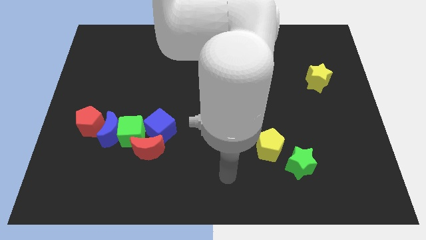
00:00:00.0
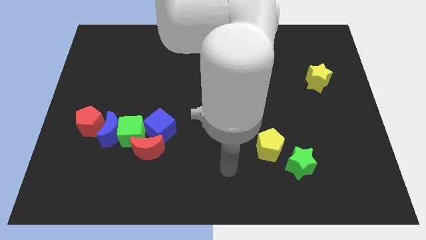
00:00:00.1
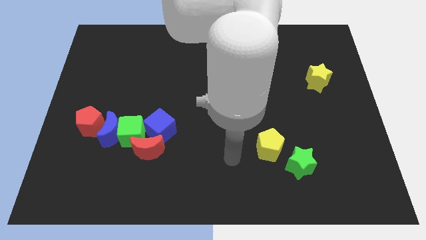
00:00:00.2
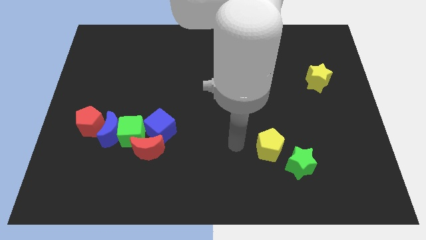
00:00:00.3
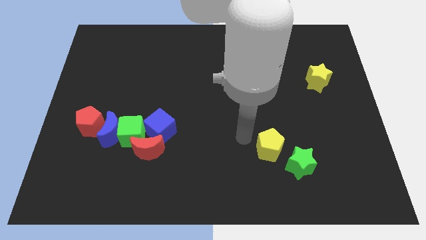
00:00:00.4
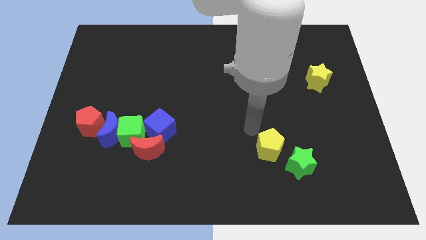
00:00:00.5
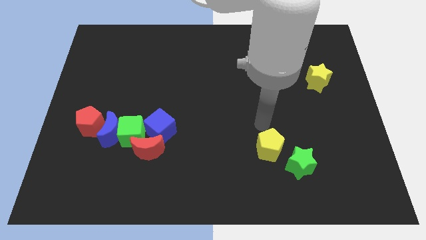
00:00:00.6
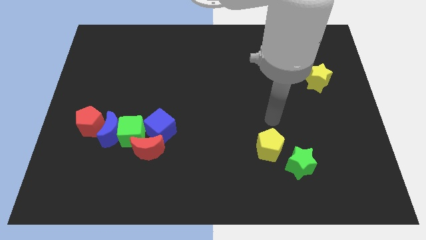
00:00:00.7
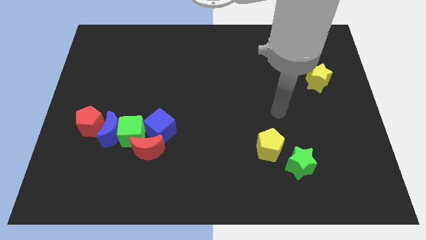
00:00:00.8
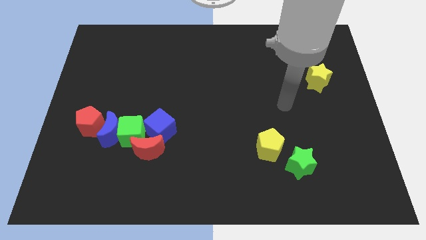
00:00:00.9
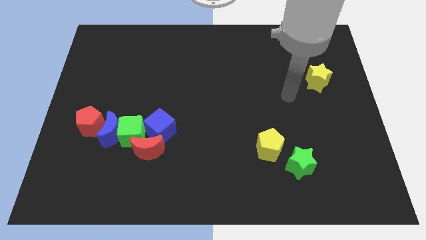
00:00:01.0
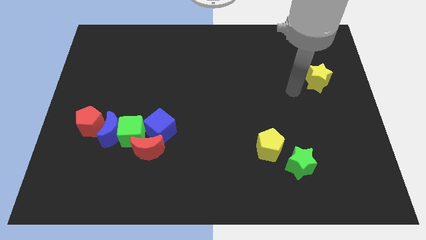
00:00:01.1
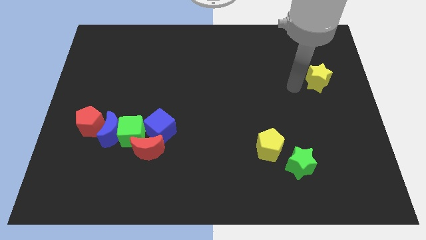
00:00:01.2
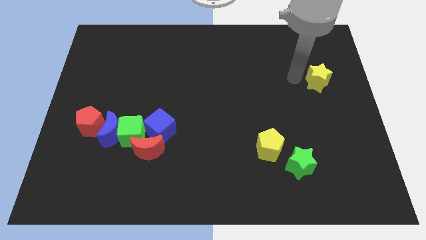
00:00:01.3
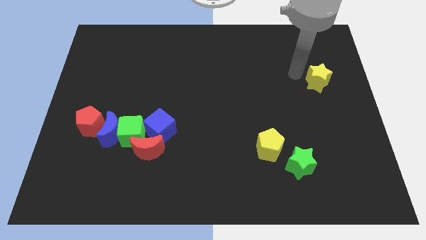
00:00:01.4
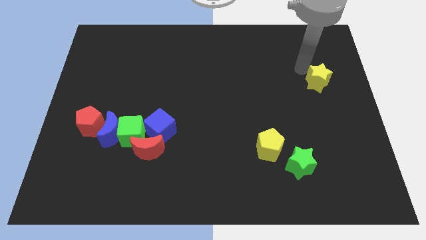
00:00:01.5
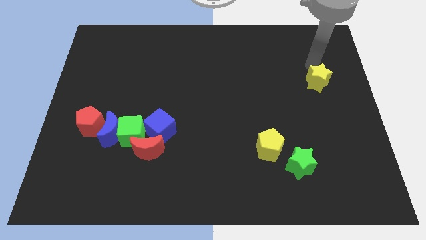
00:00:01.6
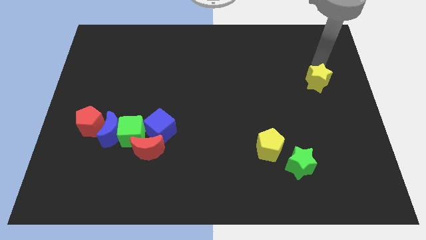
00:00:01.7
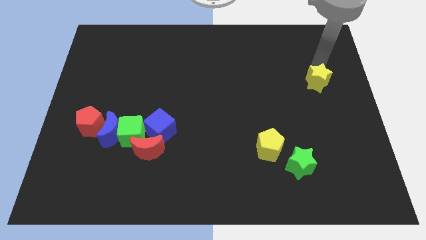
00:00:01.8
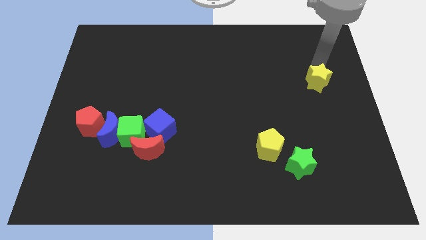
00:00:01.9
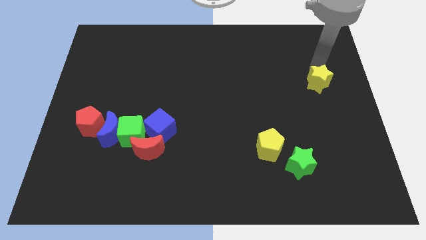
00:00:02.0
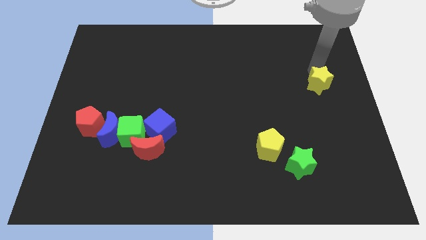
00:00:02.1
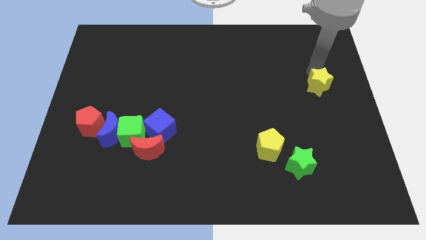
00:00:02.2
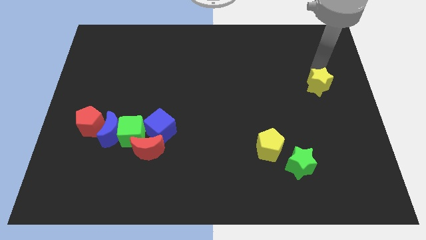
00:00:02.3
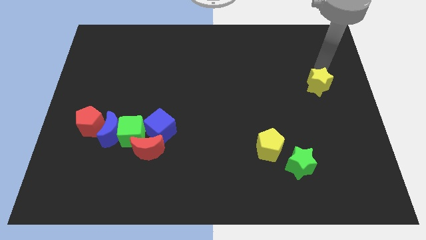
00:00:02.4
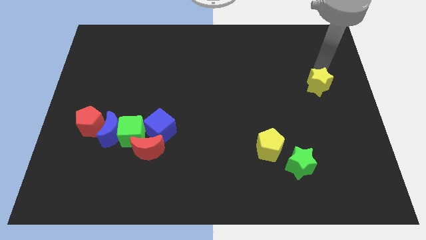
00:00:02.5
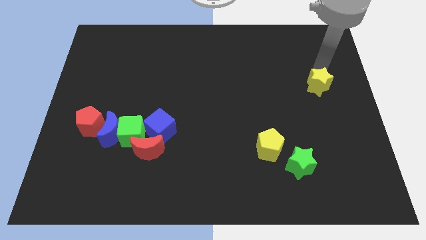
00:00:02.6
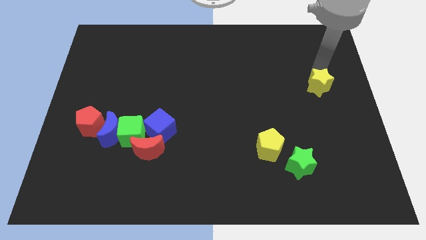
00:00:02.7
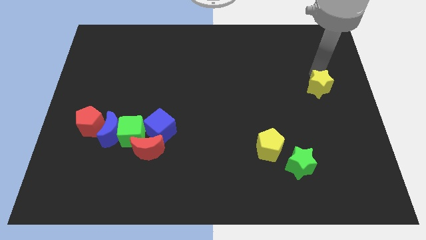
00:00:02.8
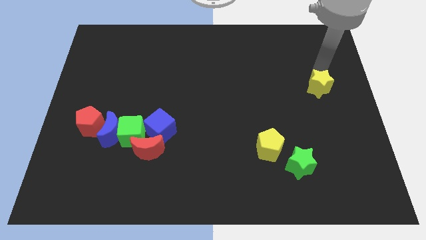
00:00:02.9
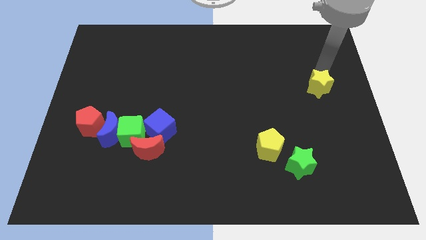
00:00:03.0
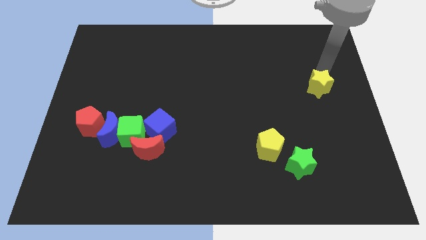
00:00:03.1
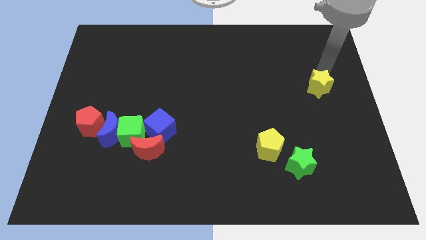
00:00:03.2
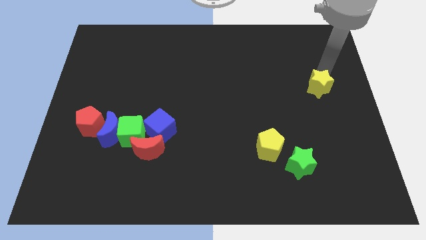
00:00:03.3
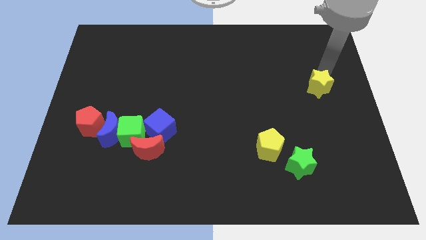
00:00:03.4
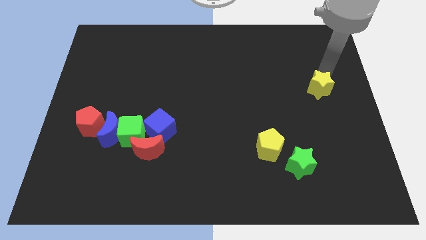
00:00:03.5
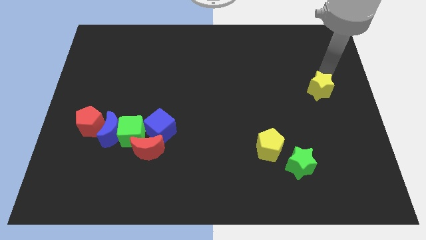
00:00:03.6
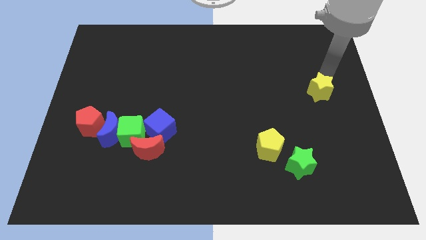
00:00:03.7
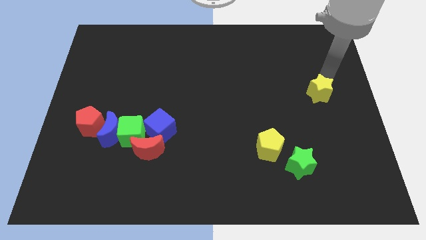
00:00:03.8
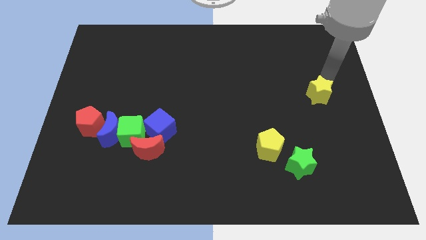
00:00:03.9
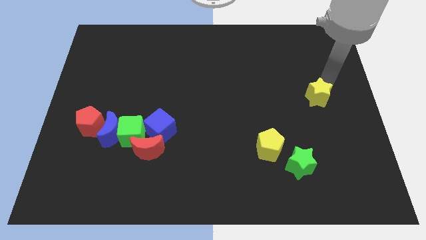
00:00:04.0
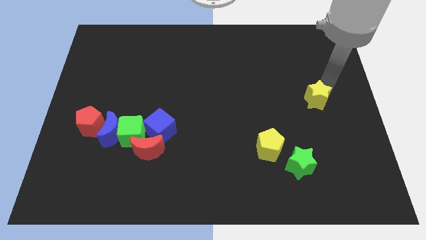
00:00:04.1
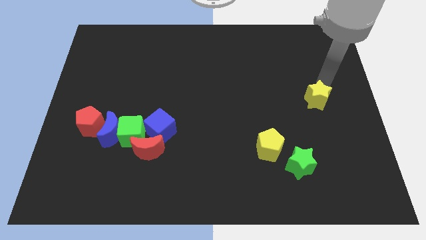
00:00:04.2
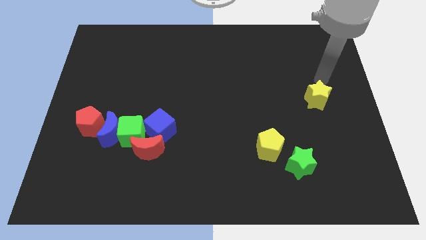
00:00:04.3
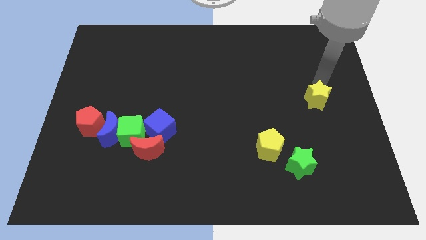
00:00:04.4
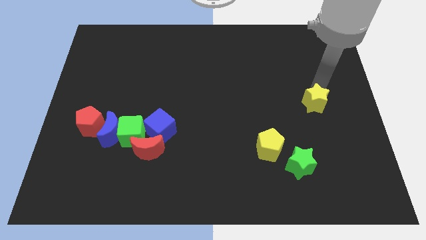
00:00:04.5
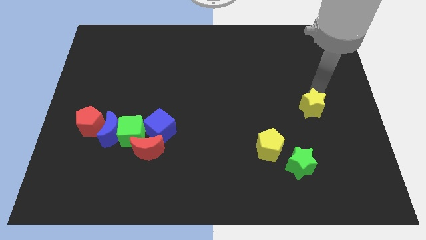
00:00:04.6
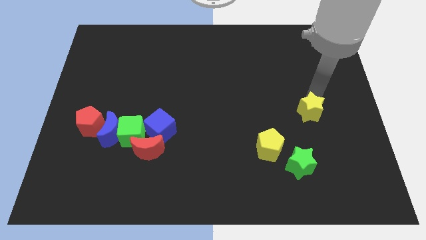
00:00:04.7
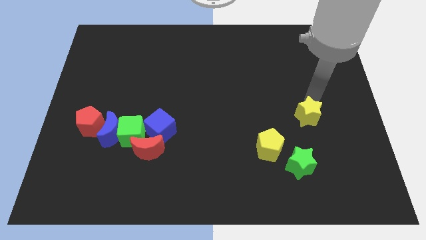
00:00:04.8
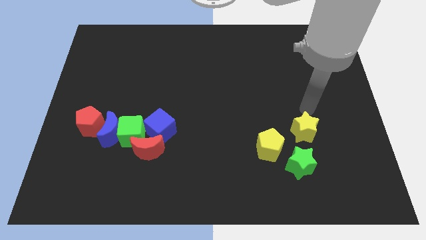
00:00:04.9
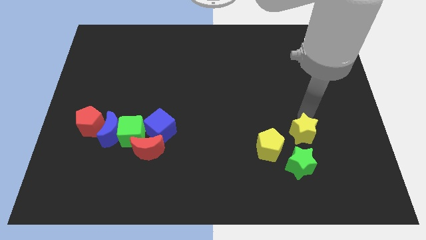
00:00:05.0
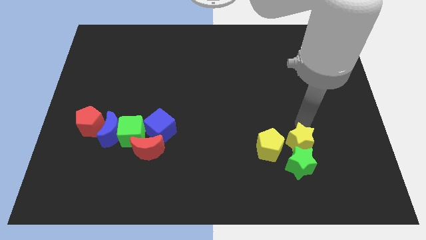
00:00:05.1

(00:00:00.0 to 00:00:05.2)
move the yellow star close to the green star

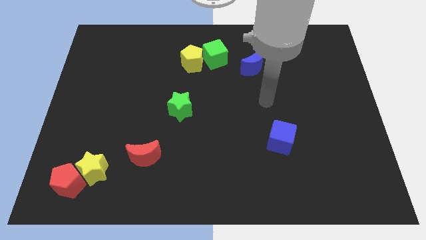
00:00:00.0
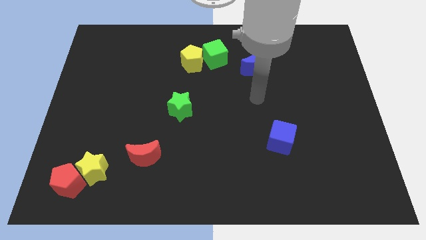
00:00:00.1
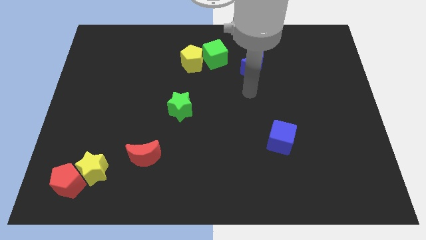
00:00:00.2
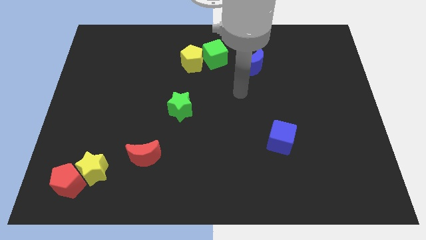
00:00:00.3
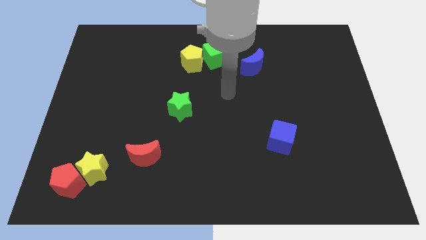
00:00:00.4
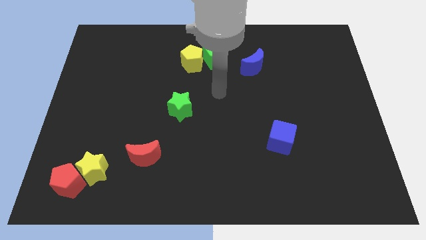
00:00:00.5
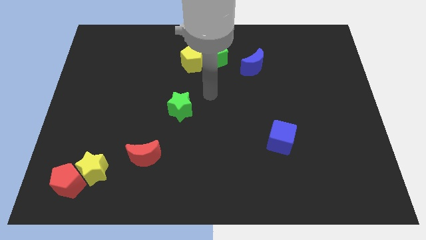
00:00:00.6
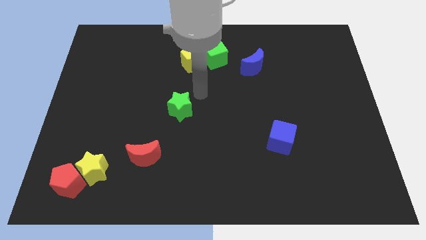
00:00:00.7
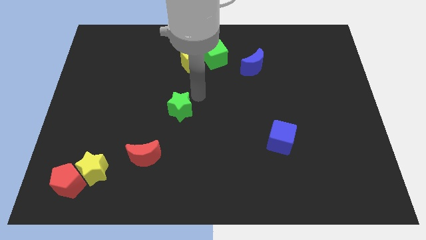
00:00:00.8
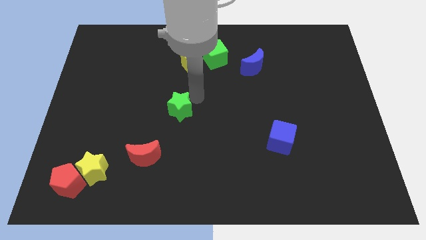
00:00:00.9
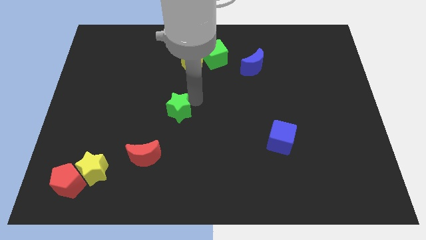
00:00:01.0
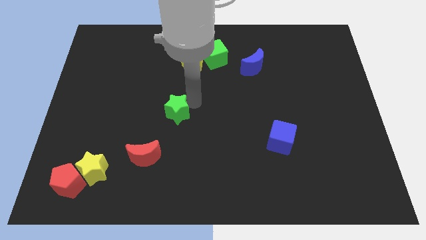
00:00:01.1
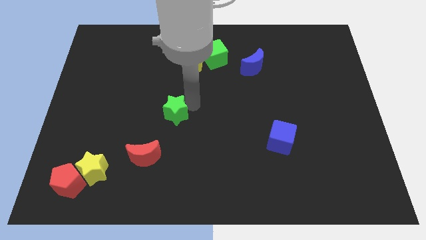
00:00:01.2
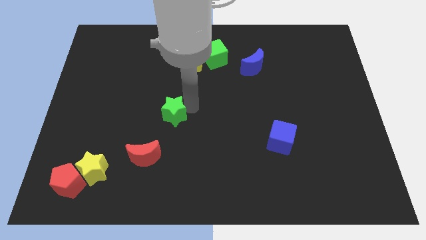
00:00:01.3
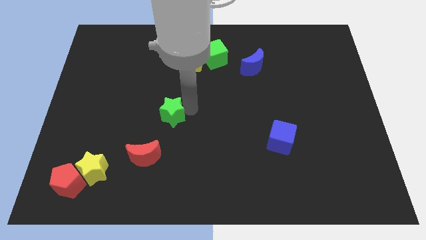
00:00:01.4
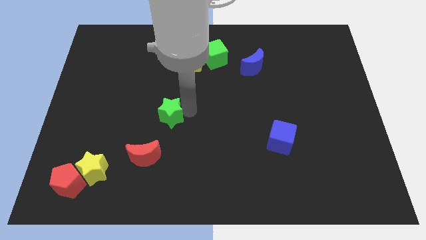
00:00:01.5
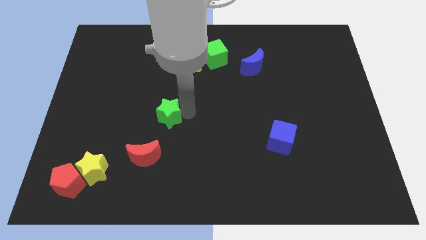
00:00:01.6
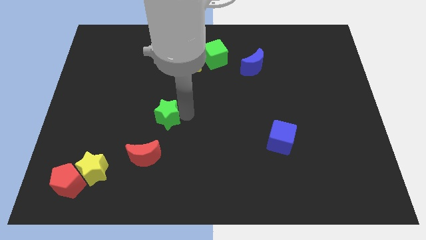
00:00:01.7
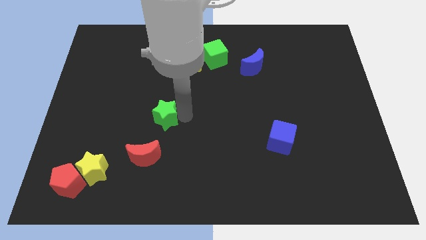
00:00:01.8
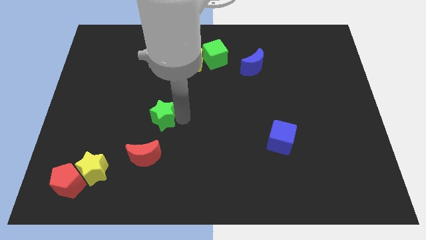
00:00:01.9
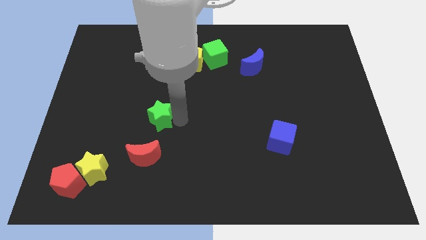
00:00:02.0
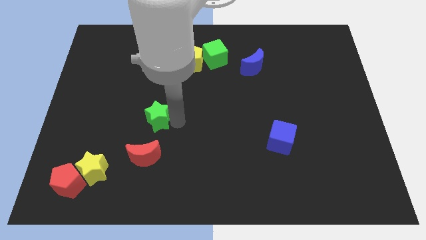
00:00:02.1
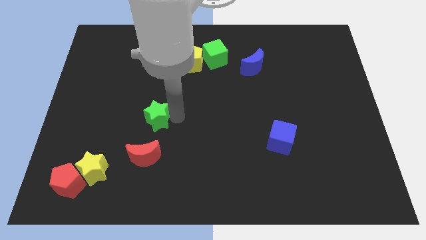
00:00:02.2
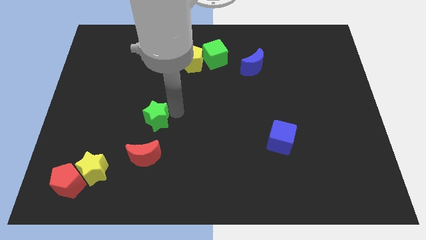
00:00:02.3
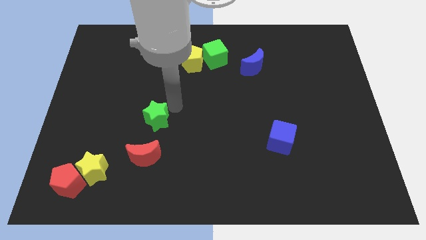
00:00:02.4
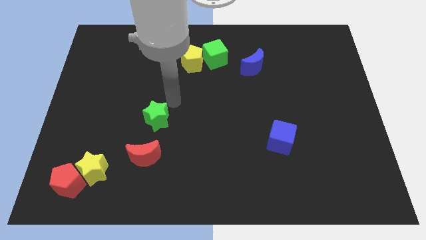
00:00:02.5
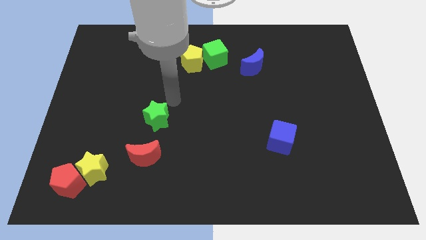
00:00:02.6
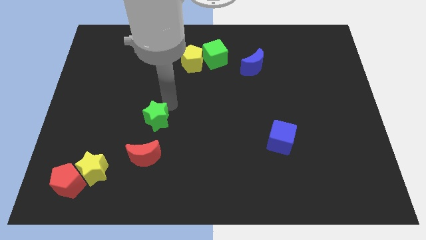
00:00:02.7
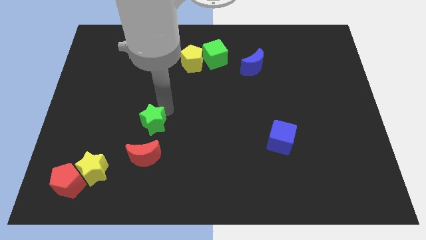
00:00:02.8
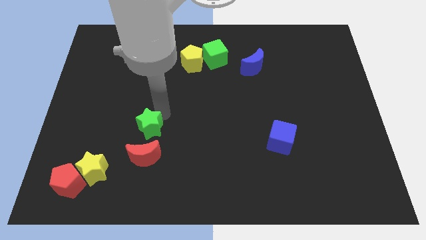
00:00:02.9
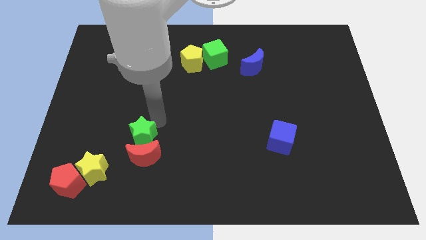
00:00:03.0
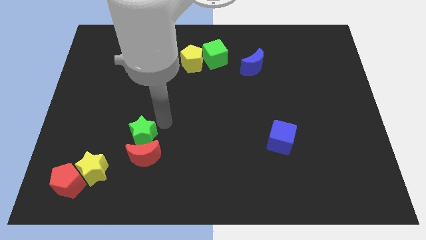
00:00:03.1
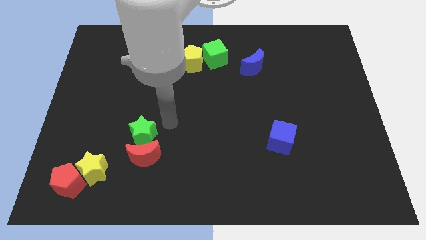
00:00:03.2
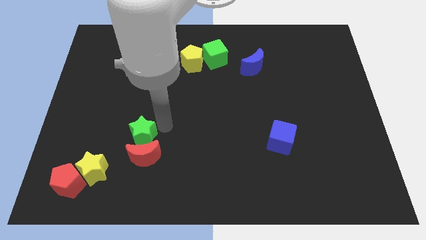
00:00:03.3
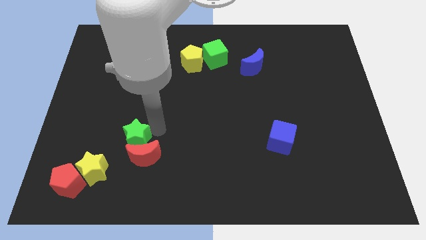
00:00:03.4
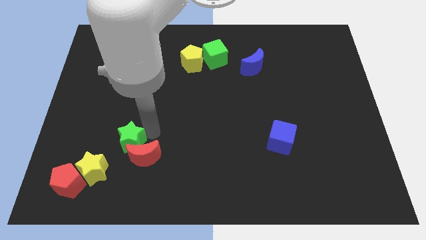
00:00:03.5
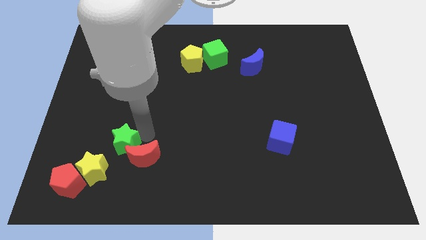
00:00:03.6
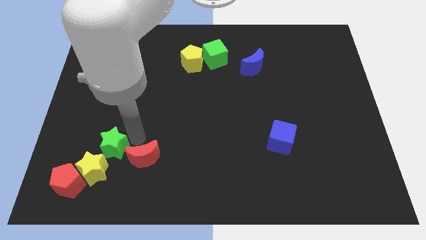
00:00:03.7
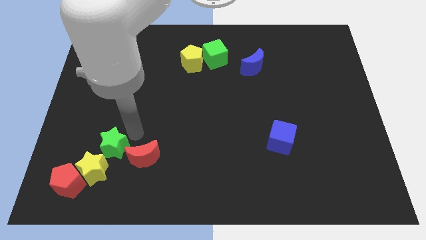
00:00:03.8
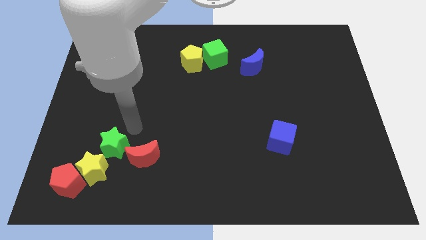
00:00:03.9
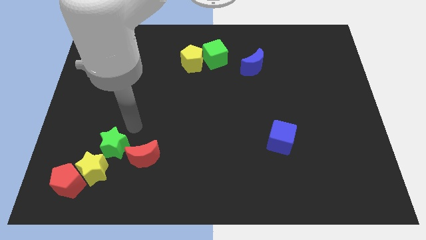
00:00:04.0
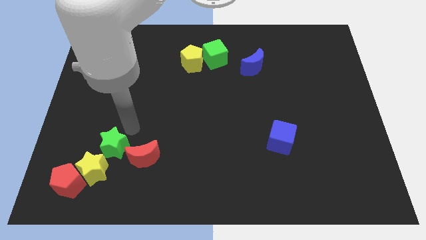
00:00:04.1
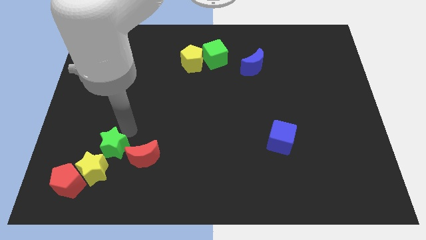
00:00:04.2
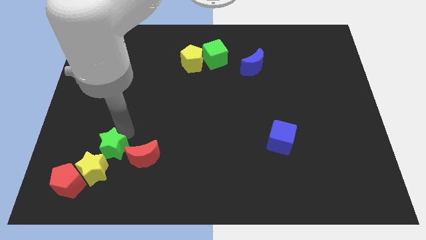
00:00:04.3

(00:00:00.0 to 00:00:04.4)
push the green star towards the yellow star
